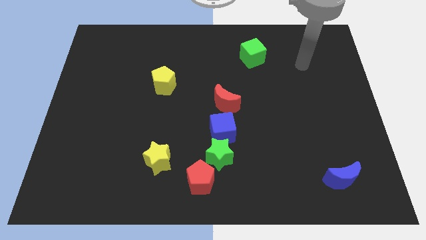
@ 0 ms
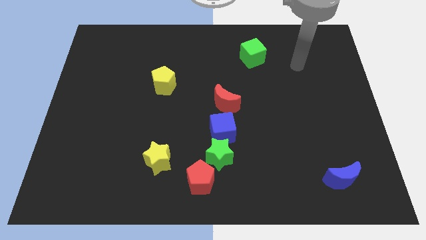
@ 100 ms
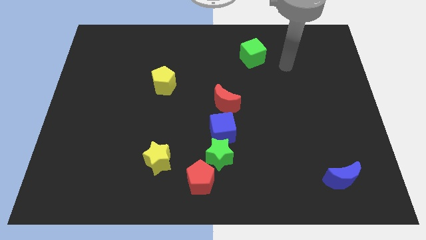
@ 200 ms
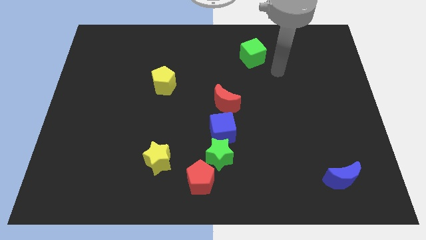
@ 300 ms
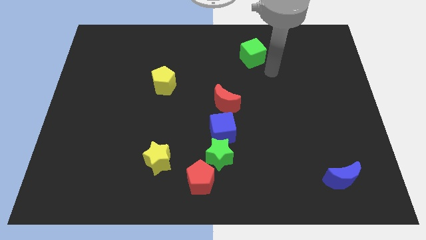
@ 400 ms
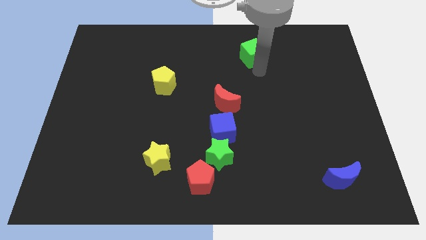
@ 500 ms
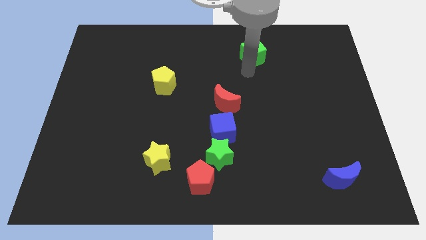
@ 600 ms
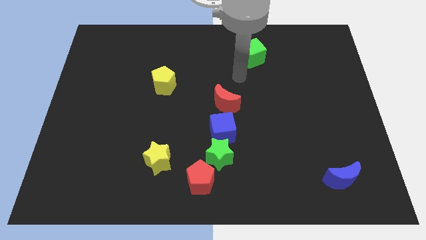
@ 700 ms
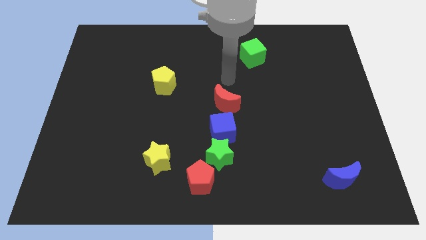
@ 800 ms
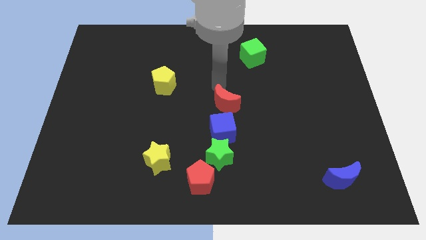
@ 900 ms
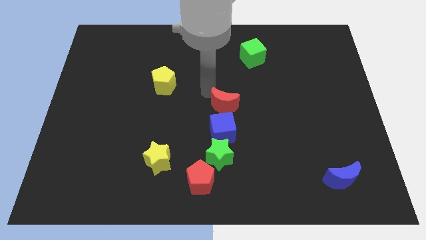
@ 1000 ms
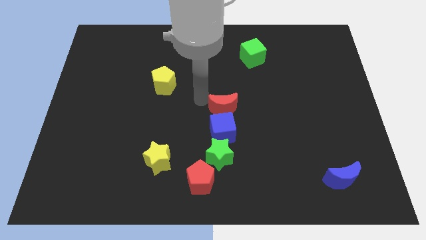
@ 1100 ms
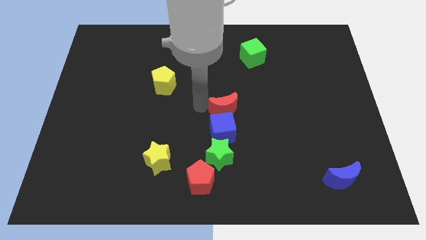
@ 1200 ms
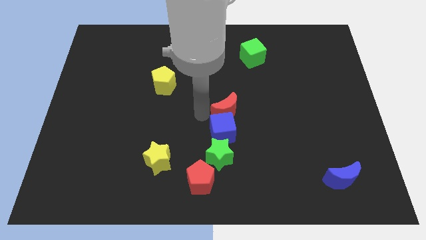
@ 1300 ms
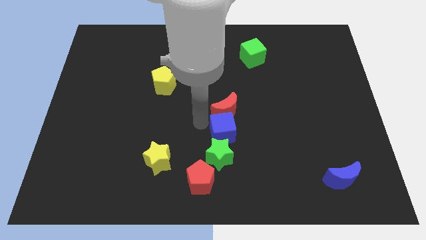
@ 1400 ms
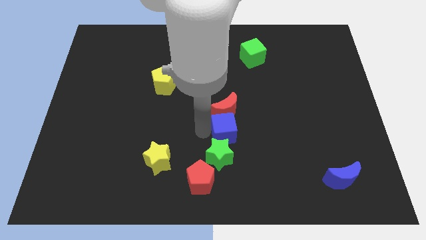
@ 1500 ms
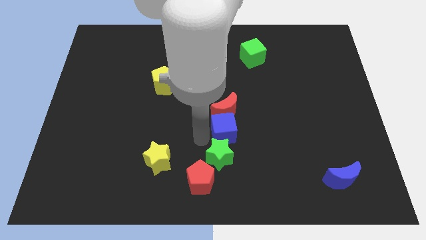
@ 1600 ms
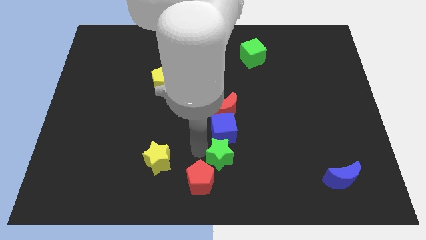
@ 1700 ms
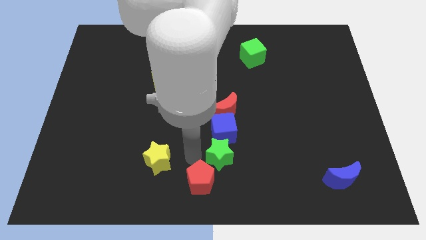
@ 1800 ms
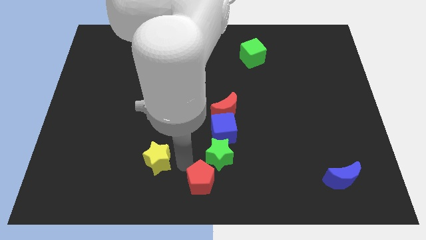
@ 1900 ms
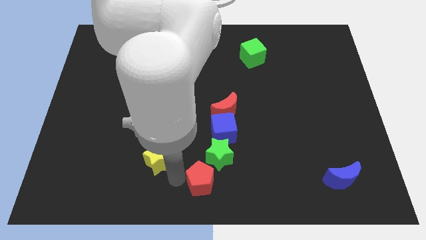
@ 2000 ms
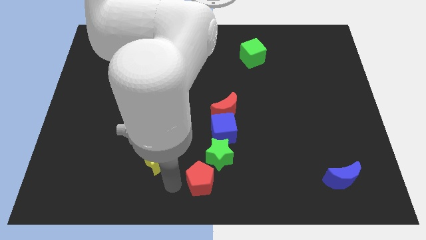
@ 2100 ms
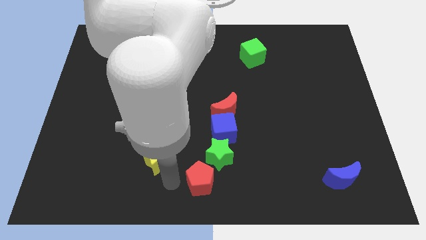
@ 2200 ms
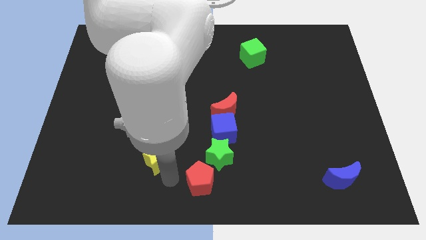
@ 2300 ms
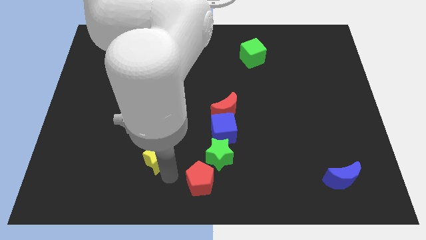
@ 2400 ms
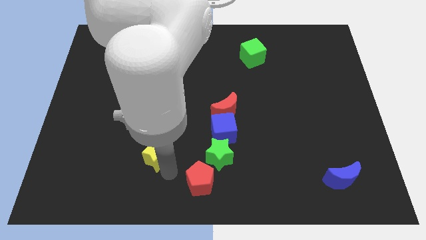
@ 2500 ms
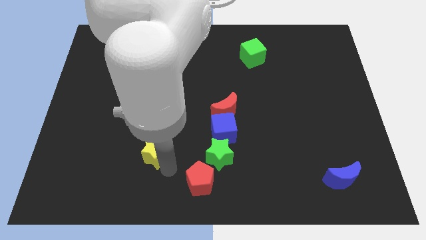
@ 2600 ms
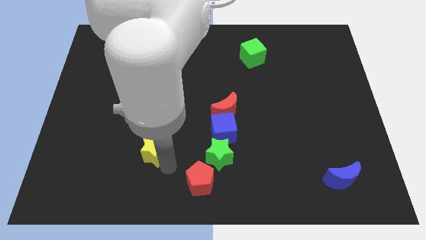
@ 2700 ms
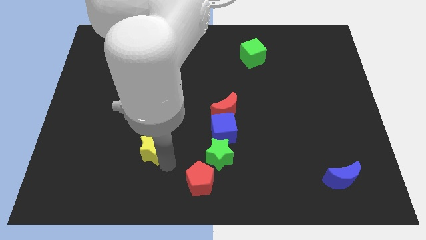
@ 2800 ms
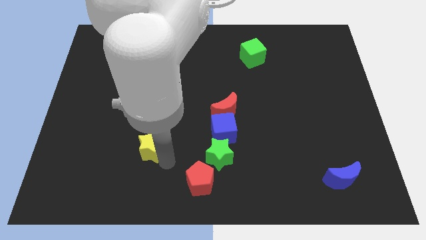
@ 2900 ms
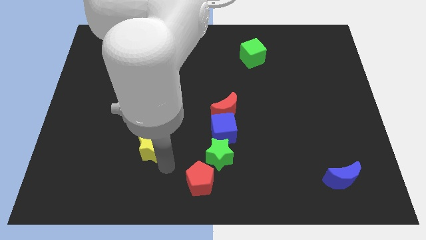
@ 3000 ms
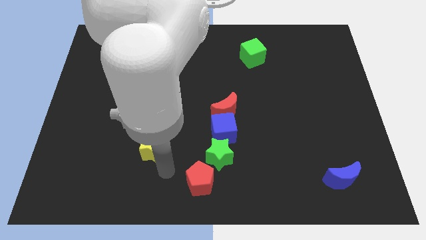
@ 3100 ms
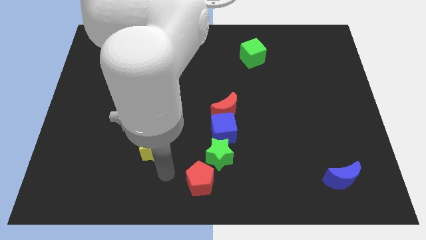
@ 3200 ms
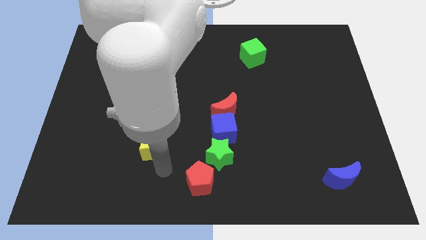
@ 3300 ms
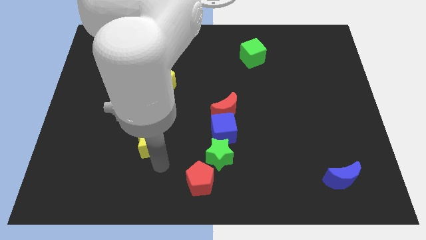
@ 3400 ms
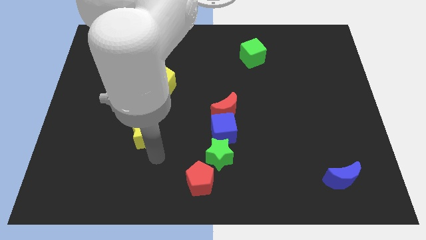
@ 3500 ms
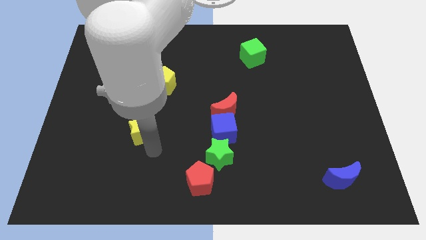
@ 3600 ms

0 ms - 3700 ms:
slightly push the yellow star upwards and to the left diagonally

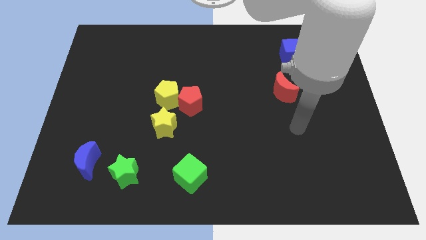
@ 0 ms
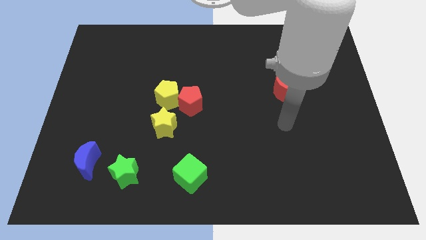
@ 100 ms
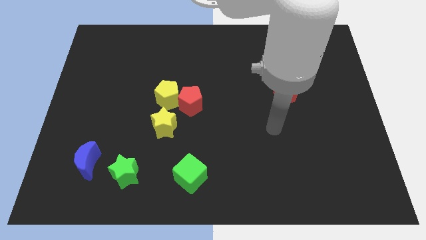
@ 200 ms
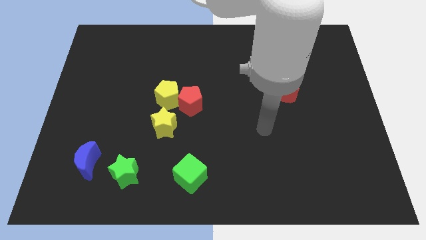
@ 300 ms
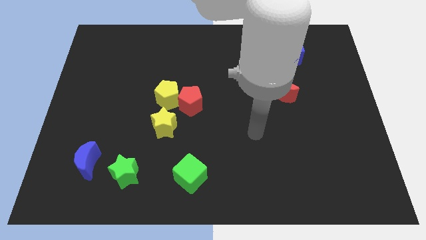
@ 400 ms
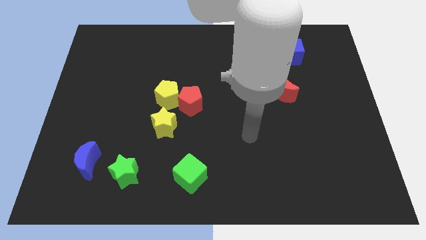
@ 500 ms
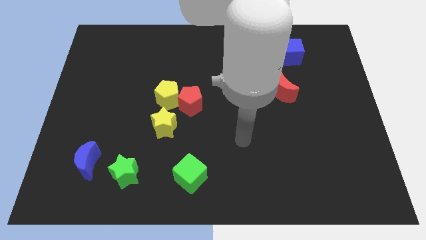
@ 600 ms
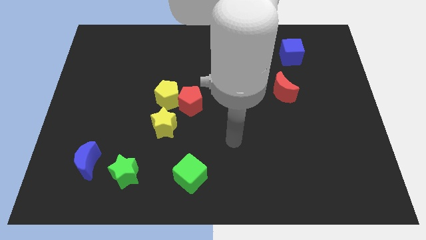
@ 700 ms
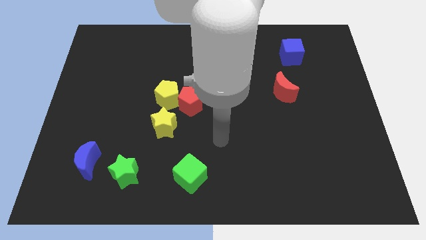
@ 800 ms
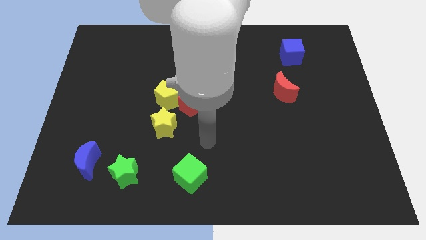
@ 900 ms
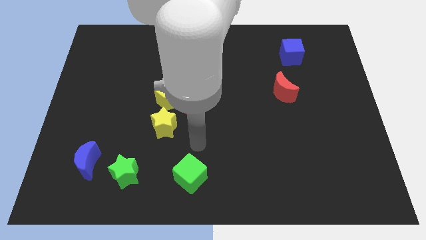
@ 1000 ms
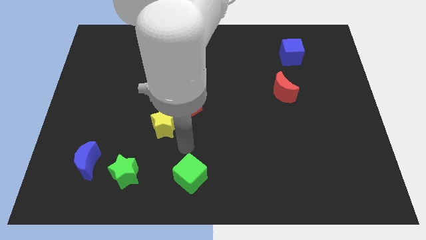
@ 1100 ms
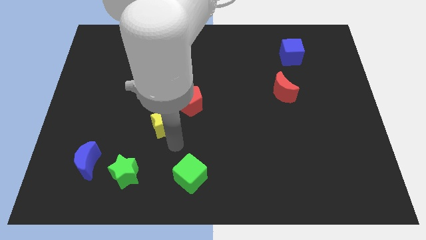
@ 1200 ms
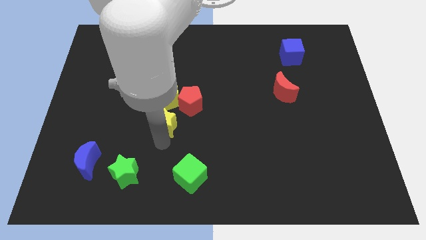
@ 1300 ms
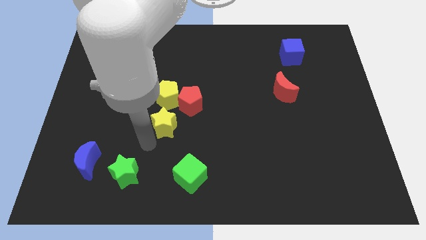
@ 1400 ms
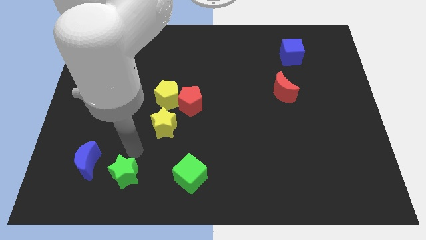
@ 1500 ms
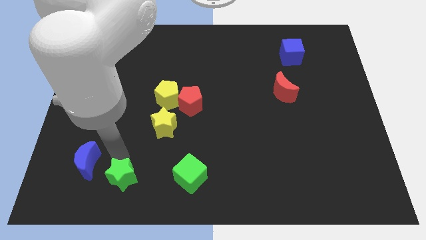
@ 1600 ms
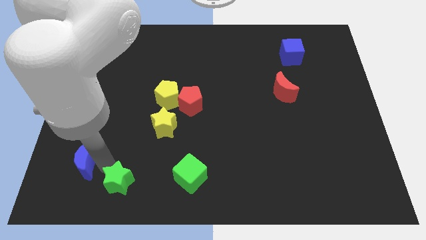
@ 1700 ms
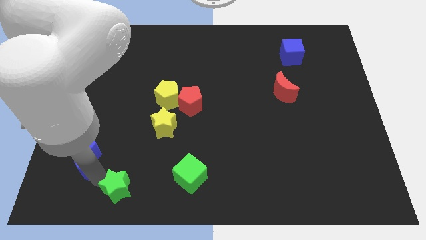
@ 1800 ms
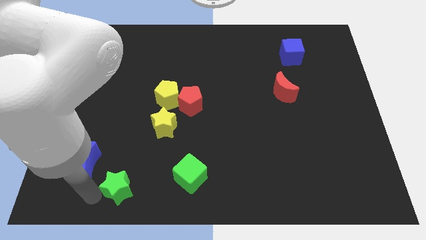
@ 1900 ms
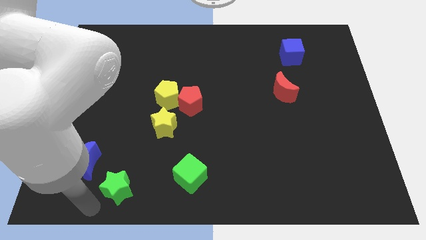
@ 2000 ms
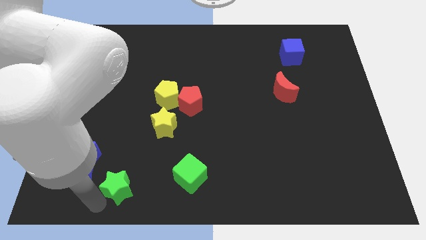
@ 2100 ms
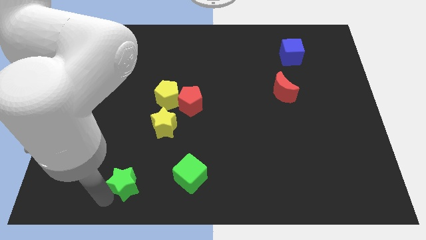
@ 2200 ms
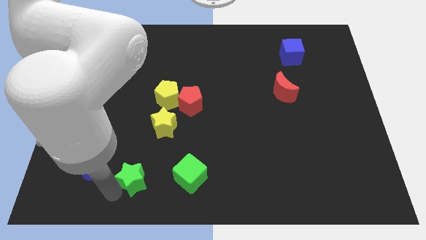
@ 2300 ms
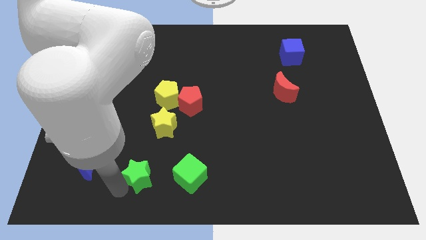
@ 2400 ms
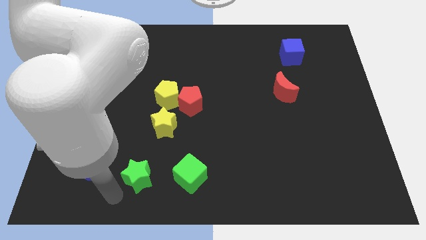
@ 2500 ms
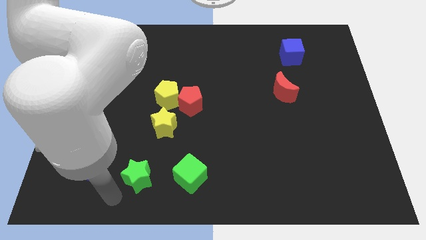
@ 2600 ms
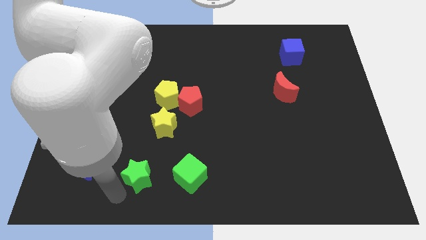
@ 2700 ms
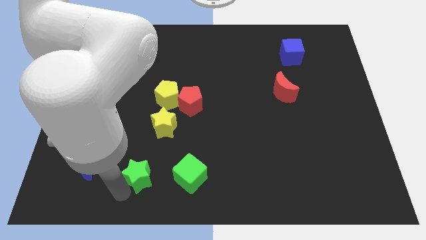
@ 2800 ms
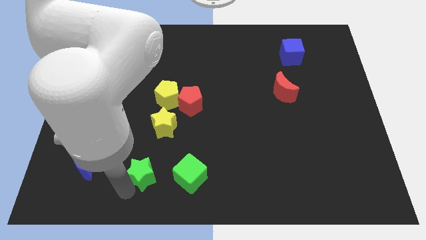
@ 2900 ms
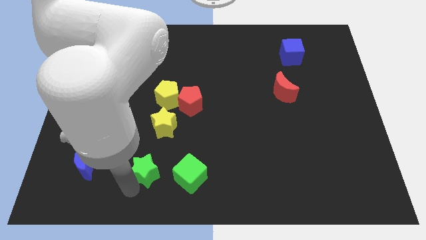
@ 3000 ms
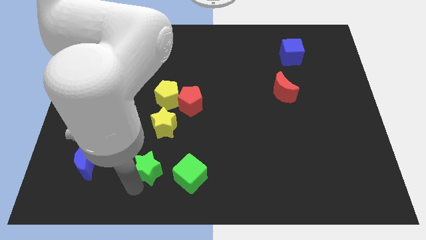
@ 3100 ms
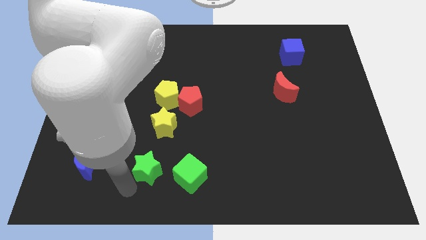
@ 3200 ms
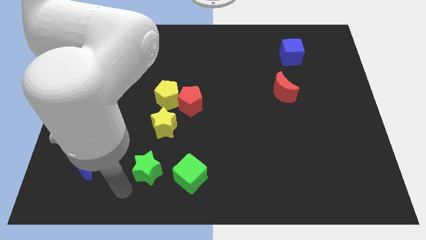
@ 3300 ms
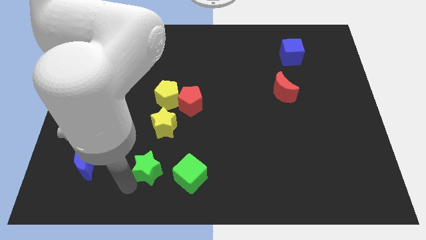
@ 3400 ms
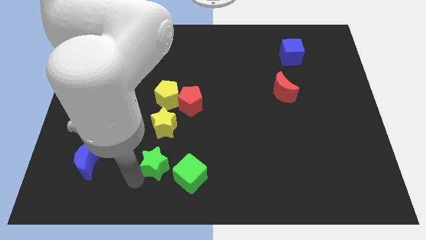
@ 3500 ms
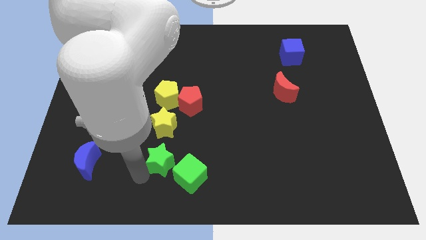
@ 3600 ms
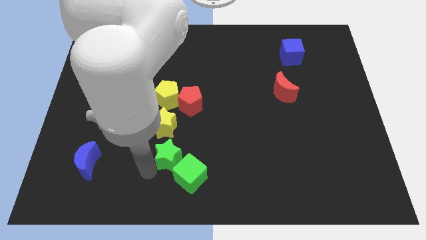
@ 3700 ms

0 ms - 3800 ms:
slightly slide the green star up and to the right diagonally

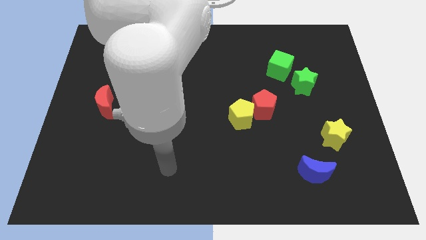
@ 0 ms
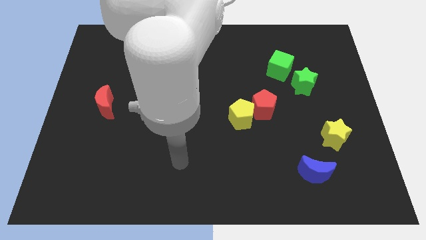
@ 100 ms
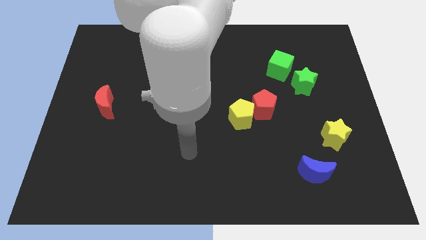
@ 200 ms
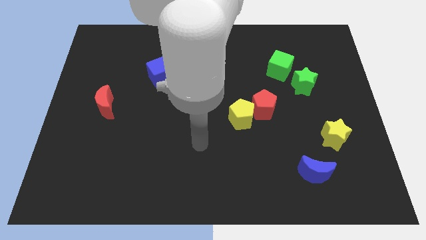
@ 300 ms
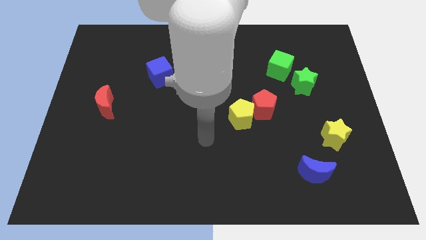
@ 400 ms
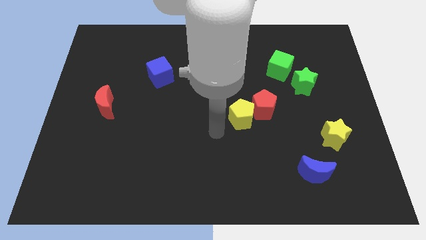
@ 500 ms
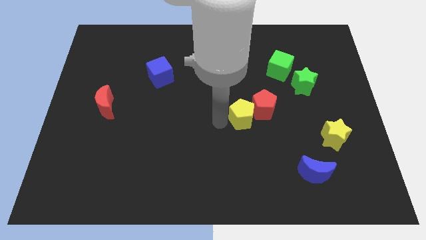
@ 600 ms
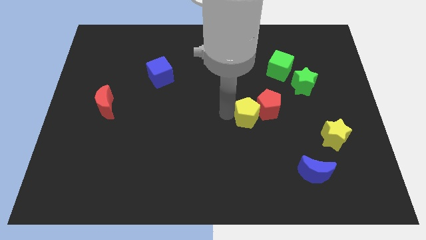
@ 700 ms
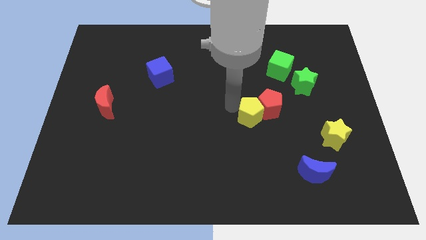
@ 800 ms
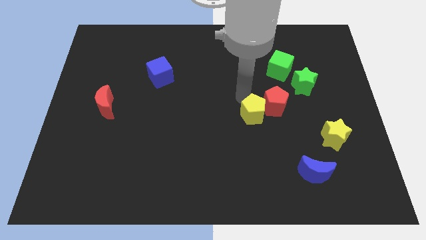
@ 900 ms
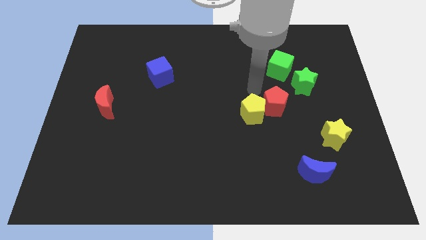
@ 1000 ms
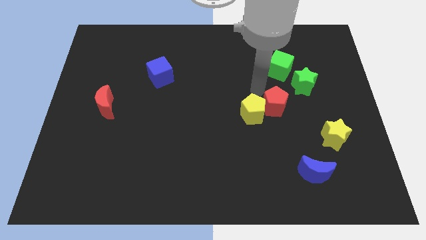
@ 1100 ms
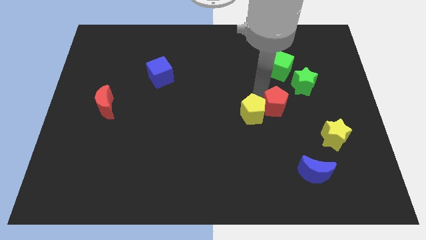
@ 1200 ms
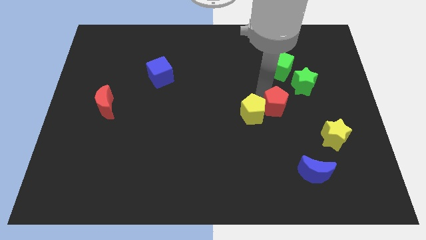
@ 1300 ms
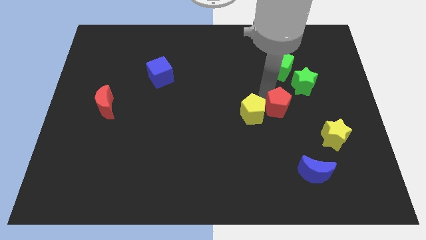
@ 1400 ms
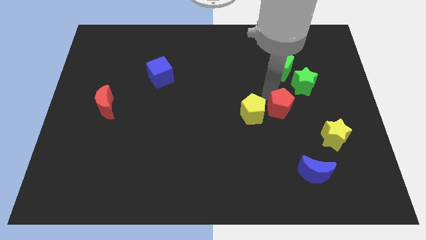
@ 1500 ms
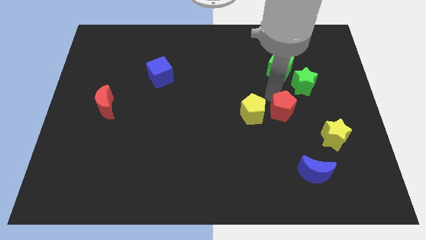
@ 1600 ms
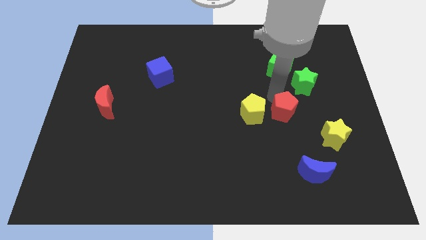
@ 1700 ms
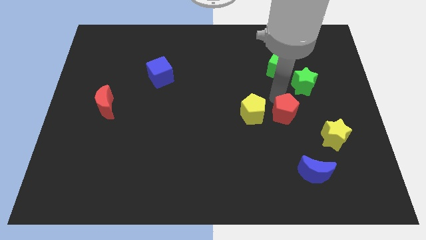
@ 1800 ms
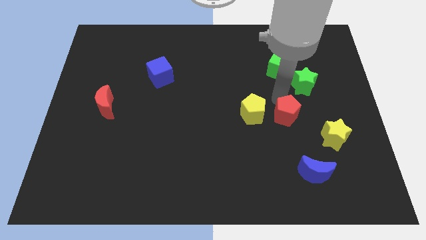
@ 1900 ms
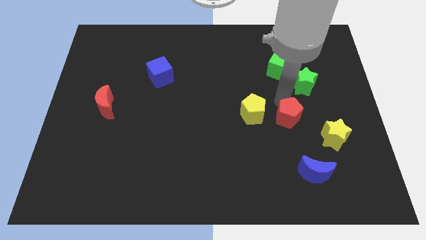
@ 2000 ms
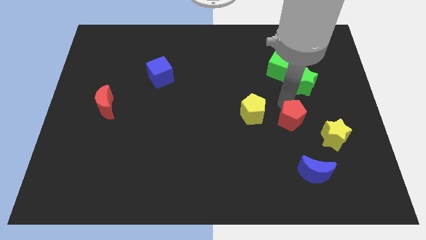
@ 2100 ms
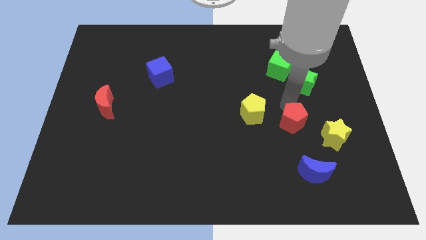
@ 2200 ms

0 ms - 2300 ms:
slightly move the red pentagon down and to the right diagonally
